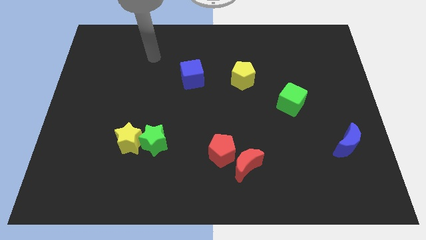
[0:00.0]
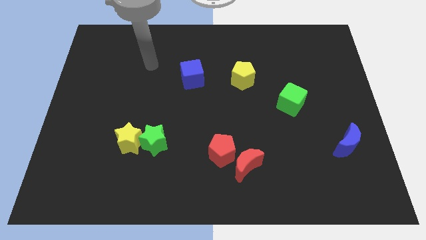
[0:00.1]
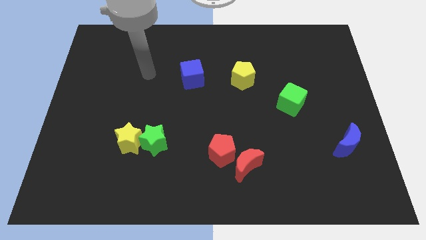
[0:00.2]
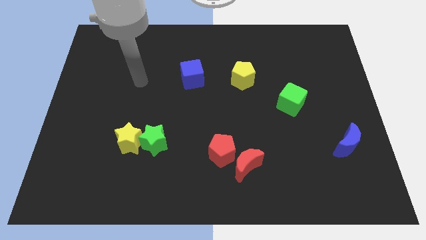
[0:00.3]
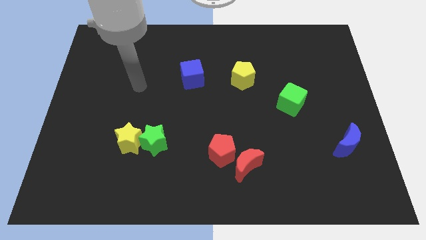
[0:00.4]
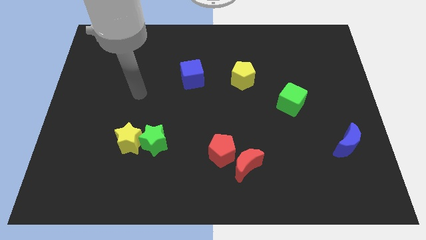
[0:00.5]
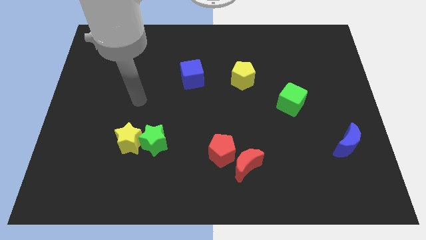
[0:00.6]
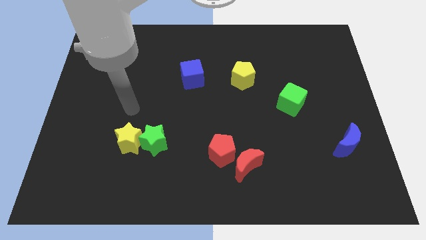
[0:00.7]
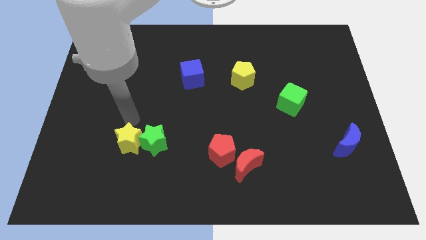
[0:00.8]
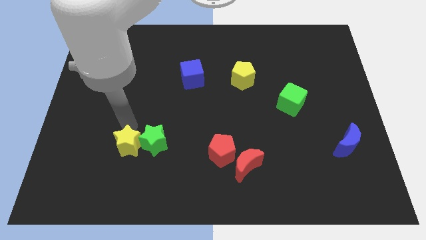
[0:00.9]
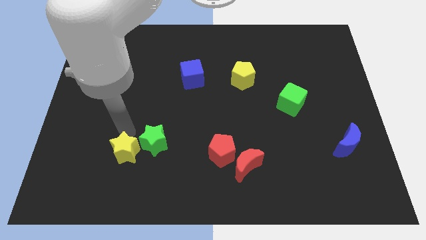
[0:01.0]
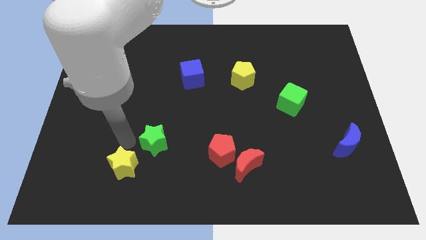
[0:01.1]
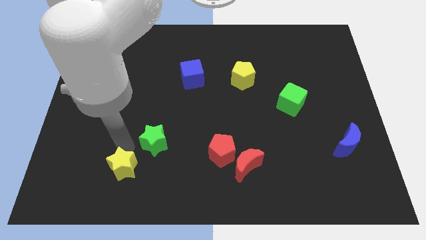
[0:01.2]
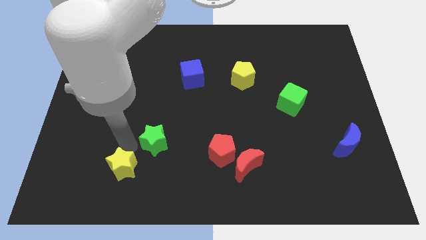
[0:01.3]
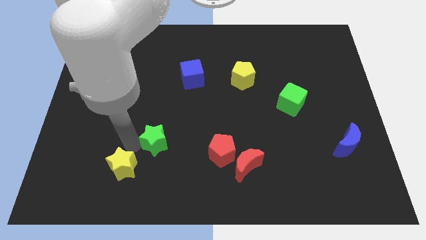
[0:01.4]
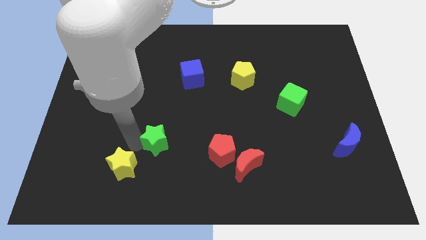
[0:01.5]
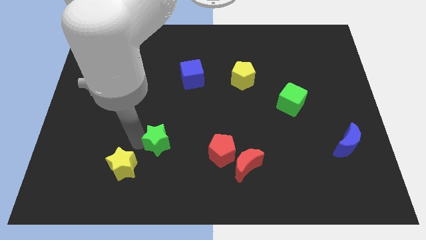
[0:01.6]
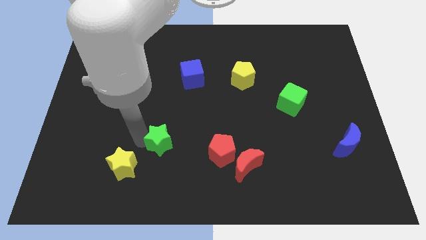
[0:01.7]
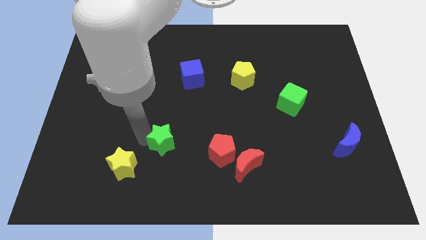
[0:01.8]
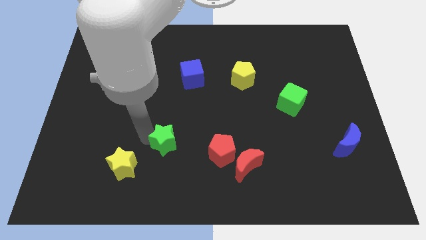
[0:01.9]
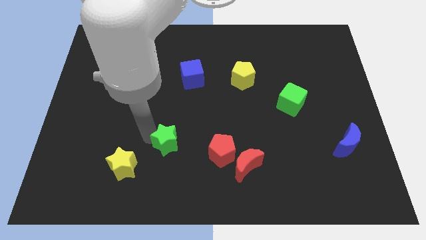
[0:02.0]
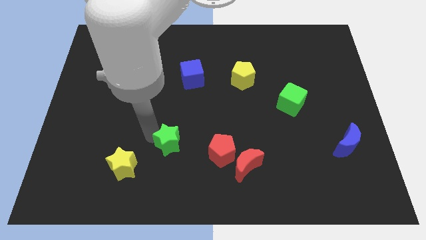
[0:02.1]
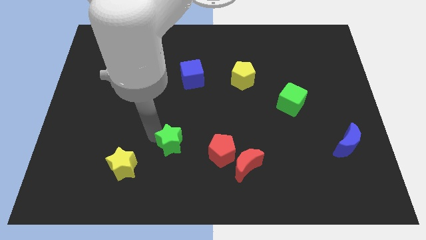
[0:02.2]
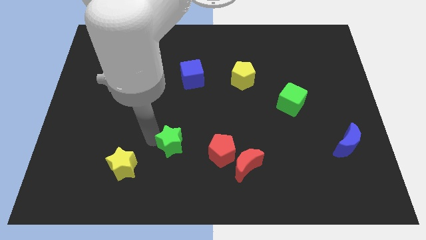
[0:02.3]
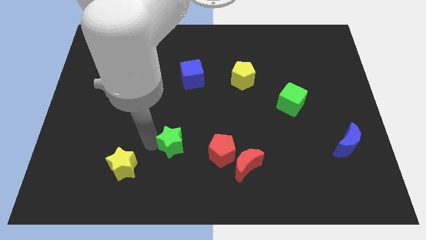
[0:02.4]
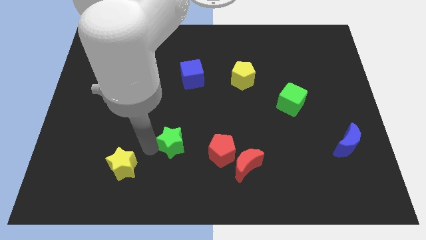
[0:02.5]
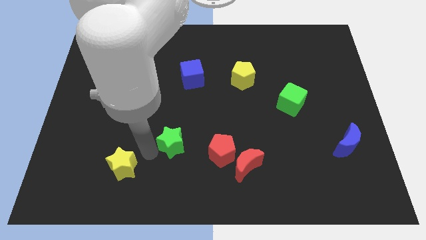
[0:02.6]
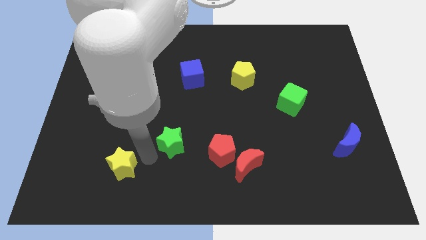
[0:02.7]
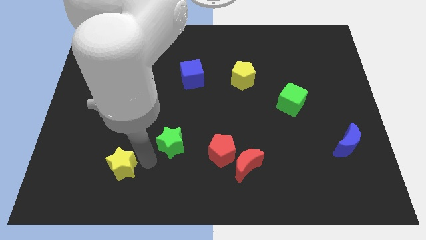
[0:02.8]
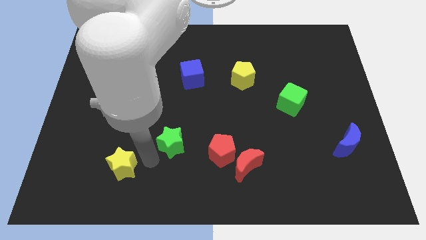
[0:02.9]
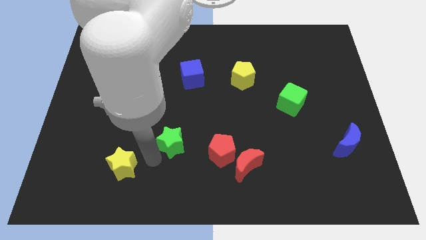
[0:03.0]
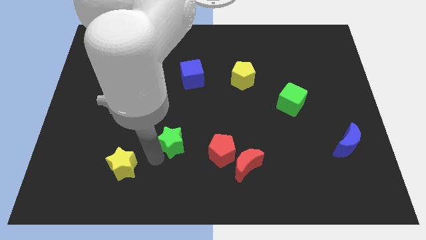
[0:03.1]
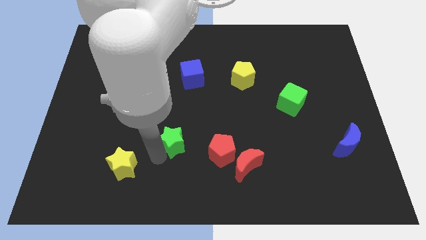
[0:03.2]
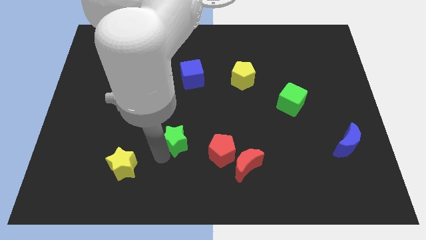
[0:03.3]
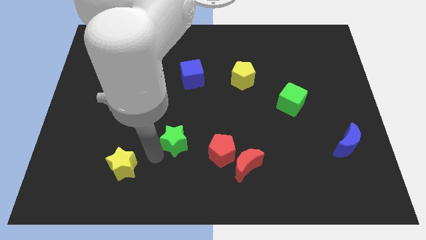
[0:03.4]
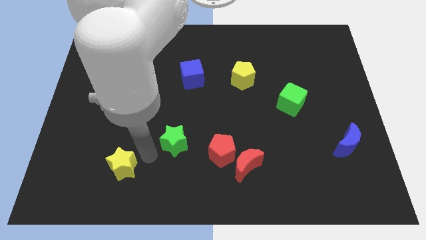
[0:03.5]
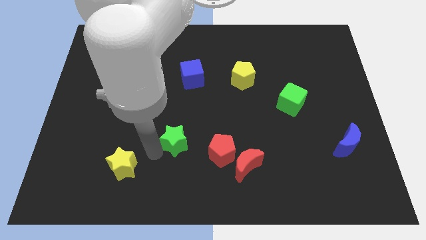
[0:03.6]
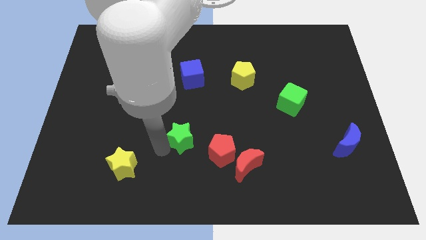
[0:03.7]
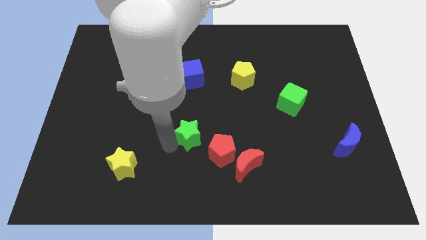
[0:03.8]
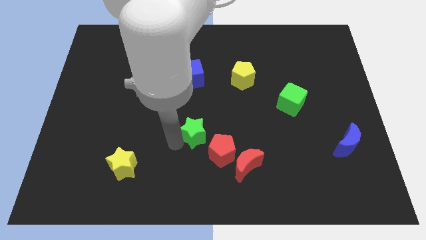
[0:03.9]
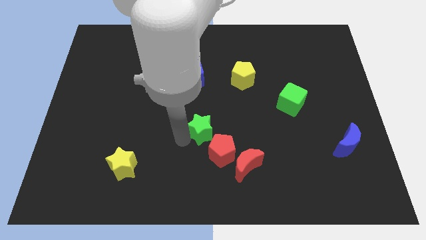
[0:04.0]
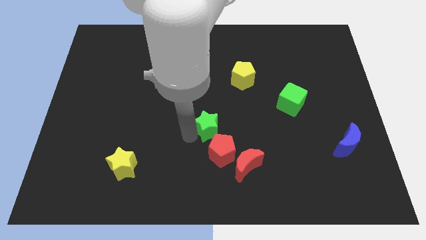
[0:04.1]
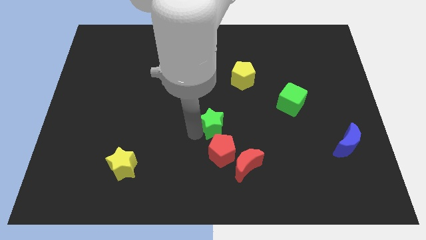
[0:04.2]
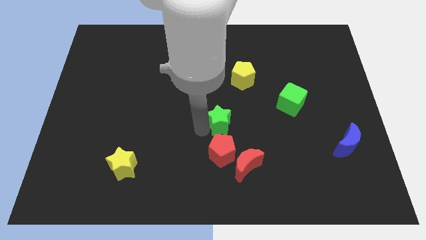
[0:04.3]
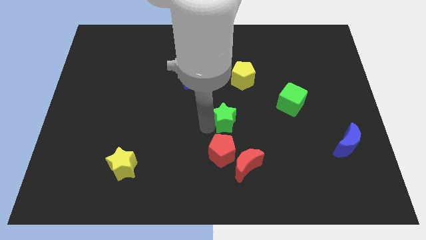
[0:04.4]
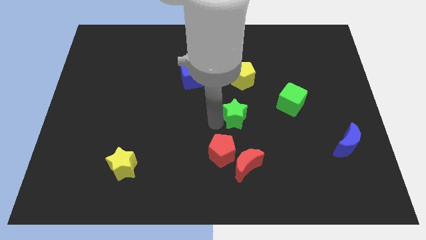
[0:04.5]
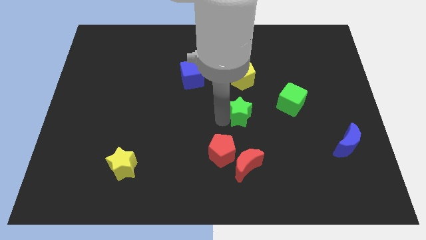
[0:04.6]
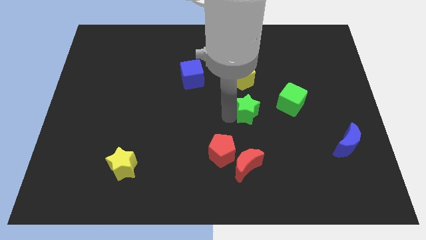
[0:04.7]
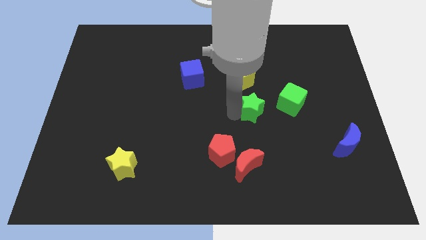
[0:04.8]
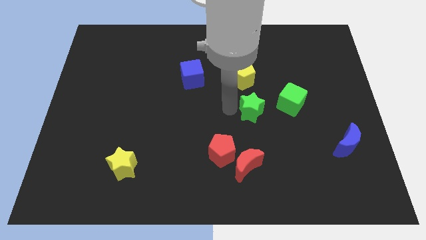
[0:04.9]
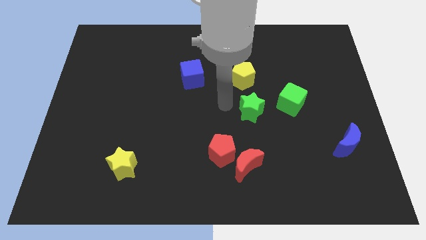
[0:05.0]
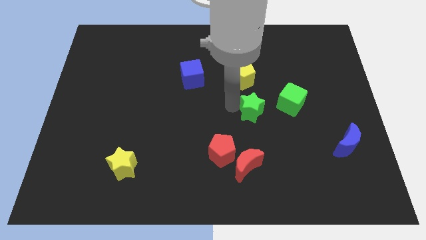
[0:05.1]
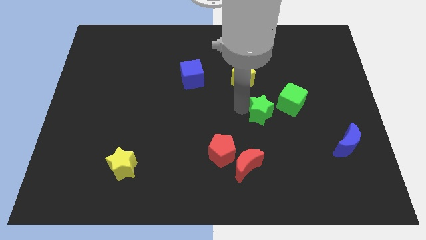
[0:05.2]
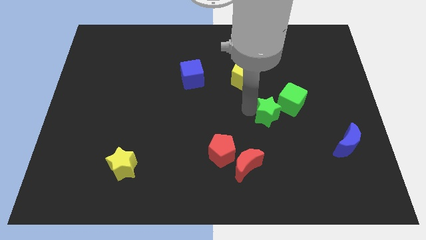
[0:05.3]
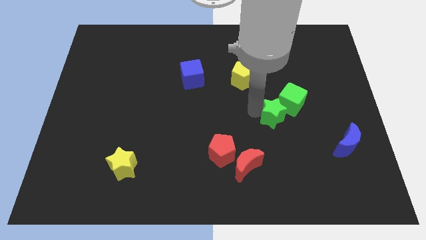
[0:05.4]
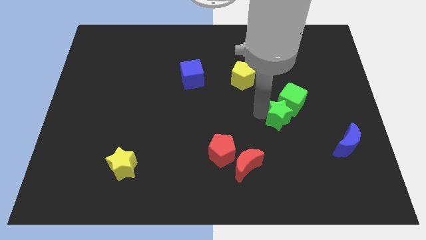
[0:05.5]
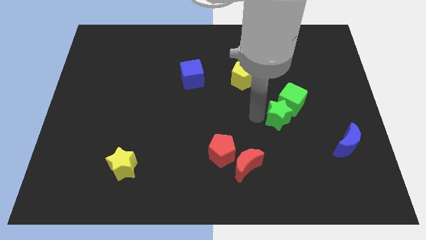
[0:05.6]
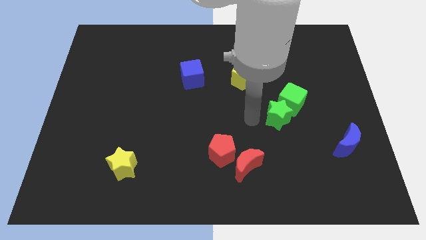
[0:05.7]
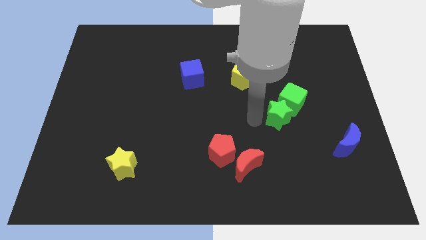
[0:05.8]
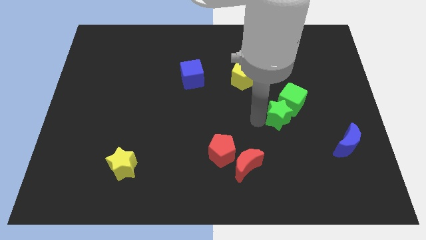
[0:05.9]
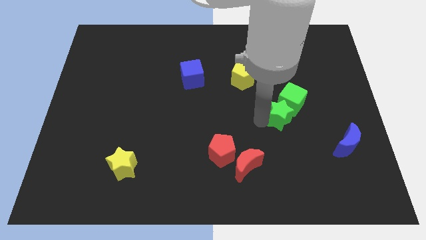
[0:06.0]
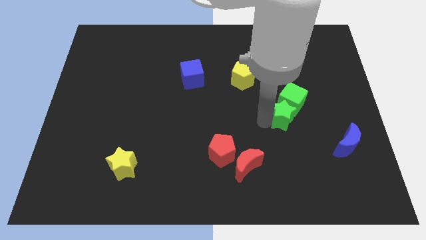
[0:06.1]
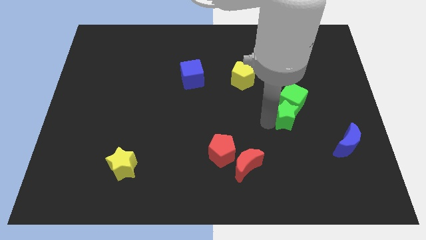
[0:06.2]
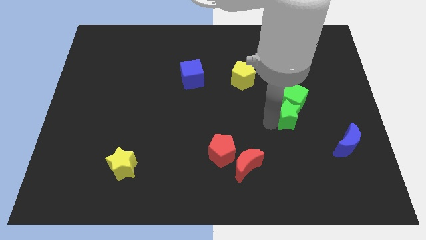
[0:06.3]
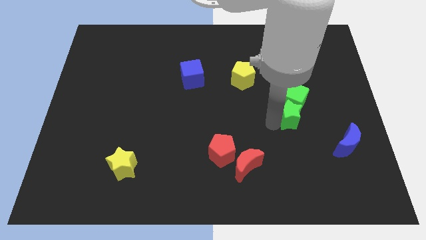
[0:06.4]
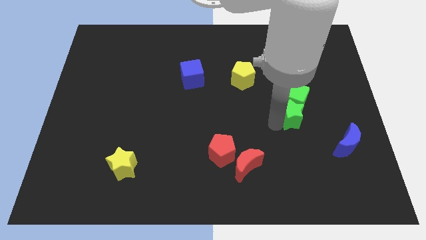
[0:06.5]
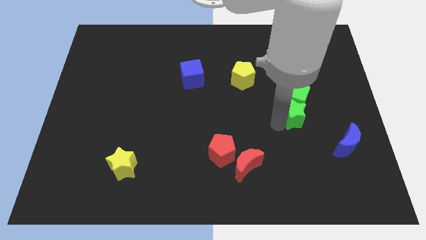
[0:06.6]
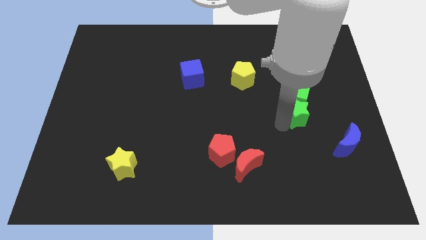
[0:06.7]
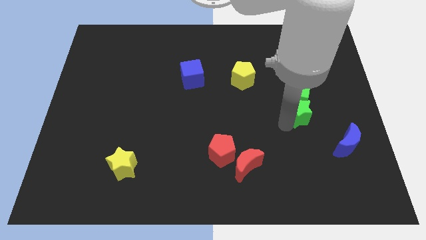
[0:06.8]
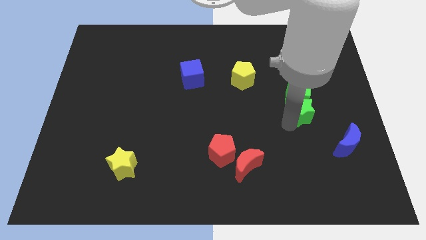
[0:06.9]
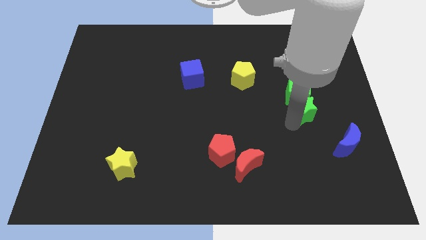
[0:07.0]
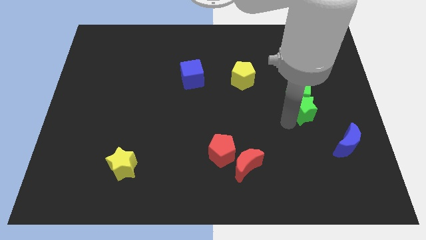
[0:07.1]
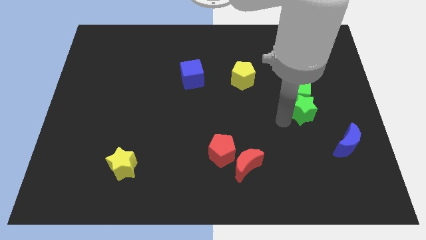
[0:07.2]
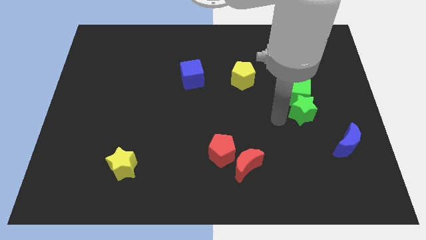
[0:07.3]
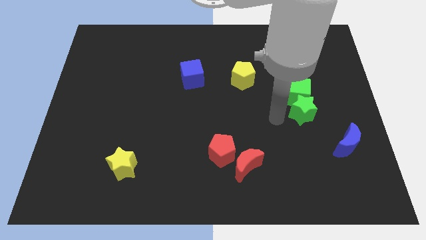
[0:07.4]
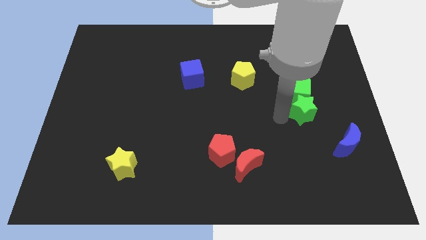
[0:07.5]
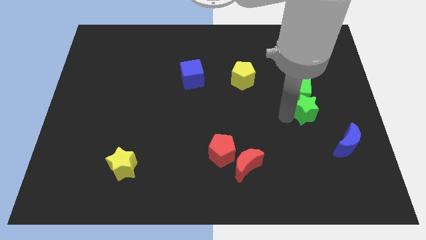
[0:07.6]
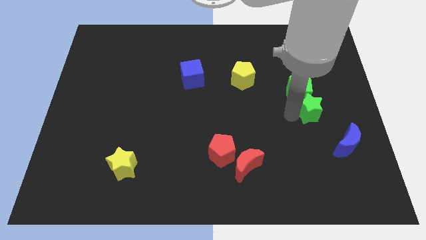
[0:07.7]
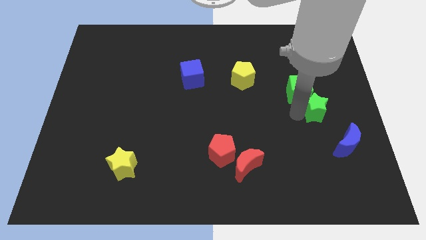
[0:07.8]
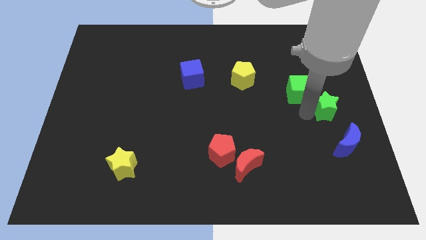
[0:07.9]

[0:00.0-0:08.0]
slide the green star to the right of the green cube
